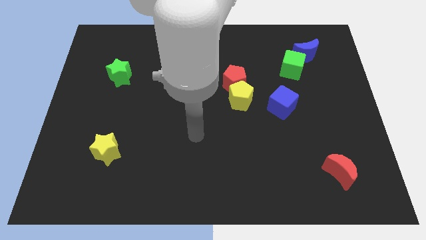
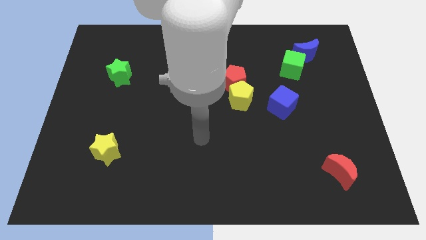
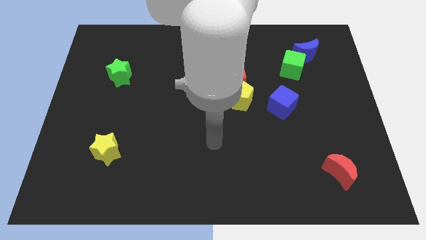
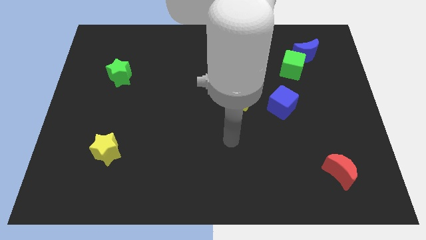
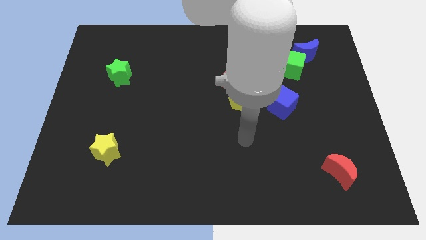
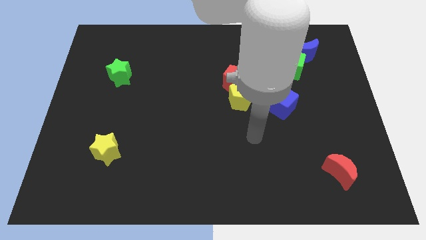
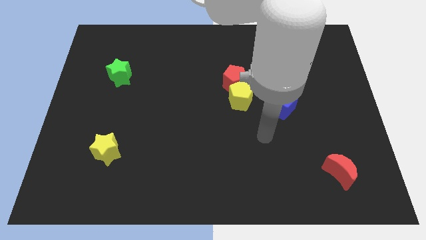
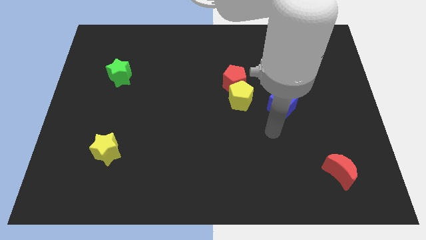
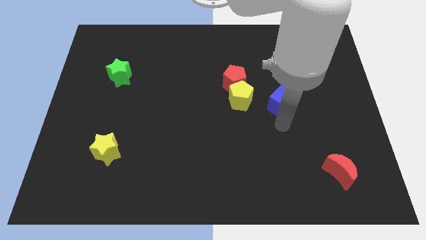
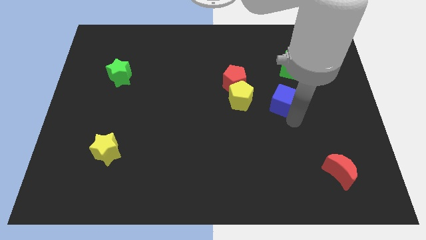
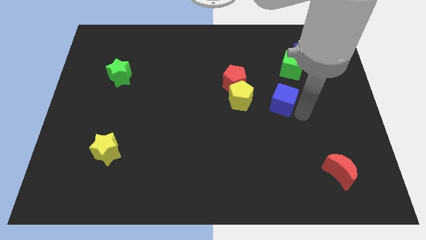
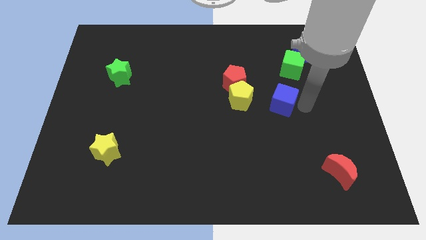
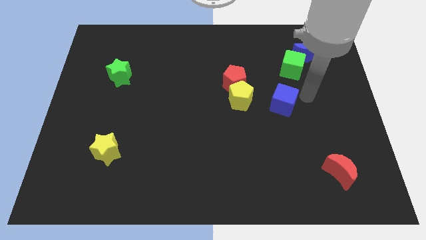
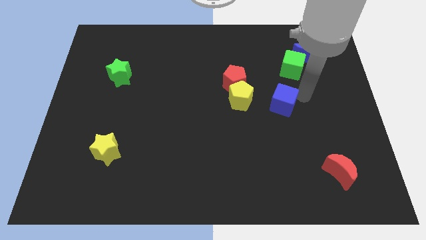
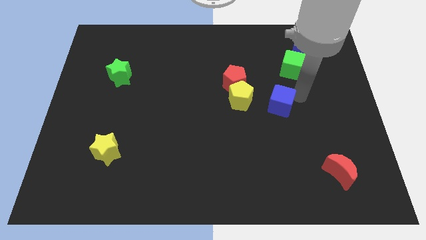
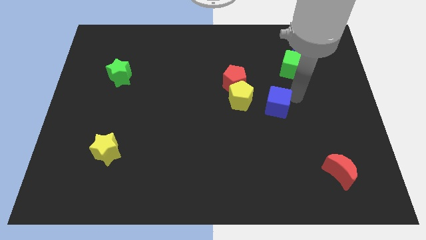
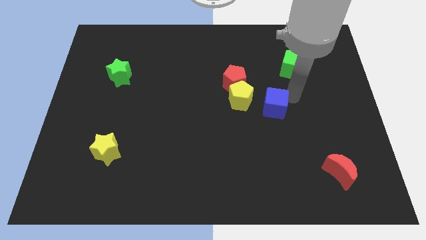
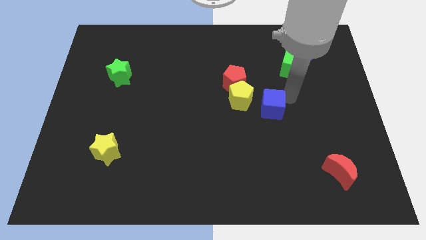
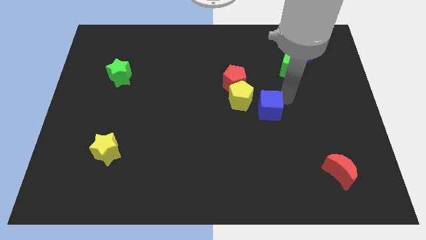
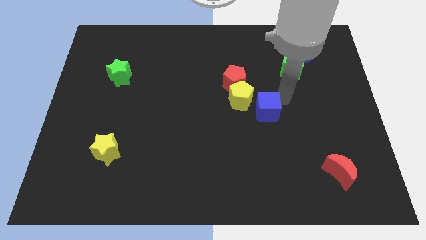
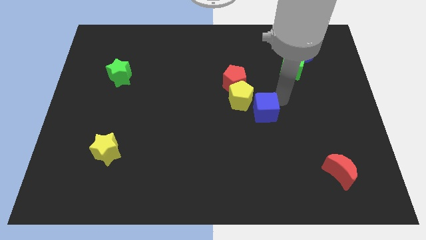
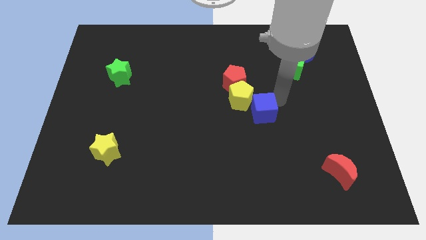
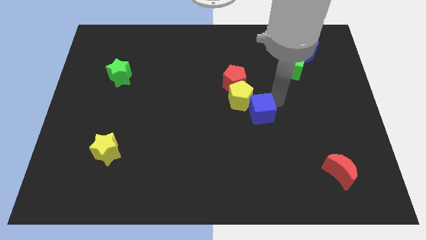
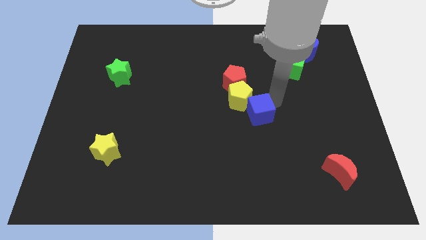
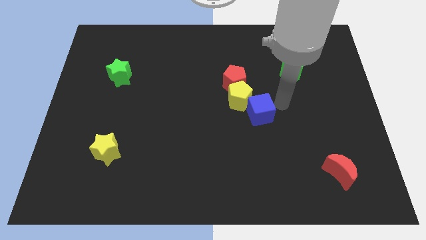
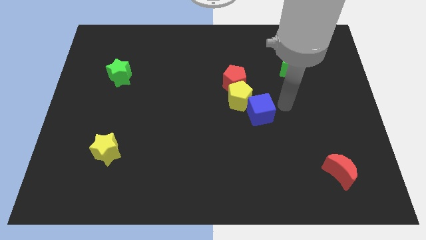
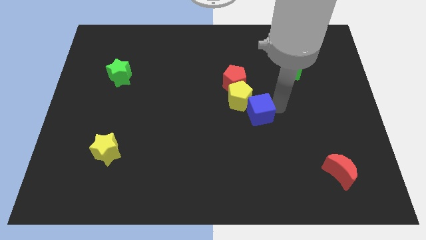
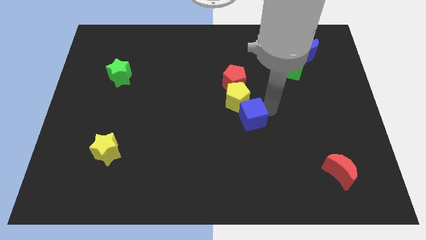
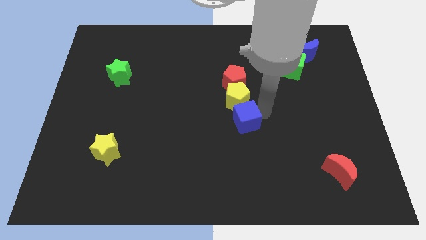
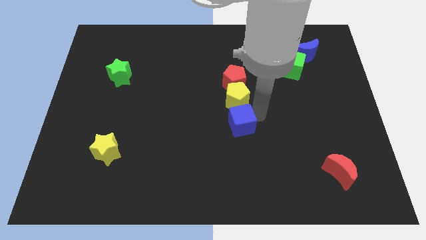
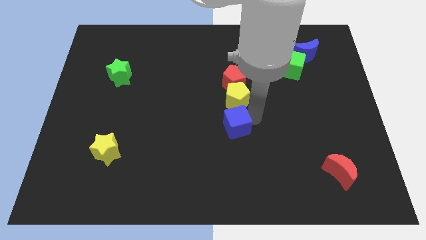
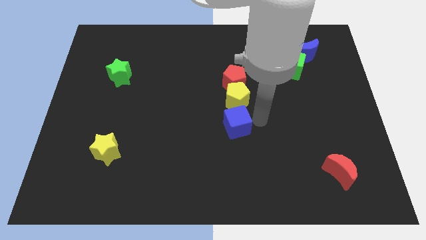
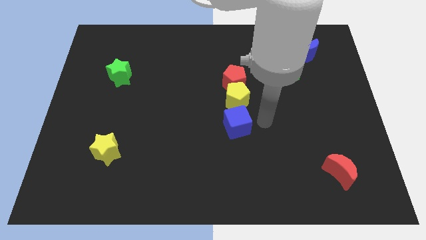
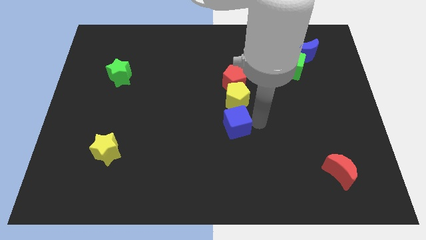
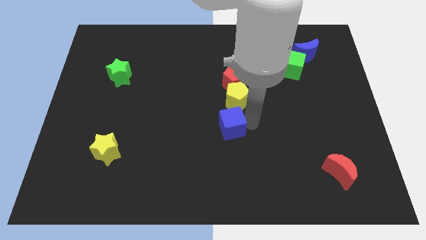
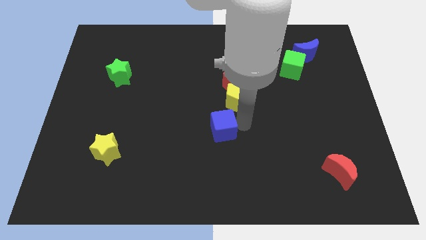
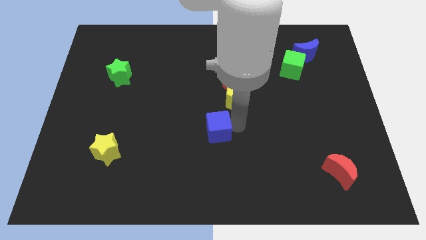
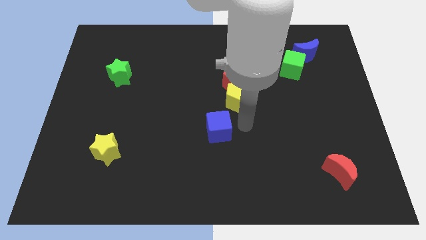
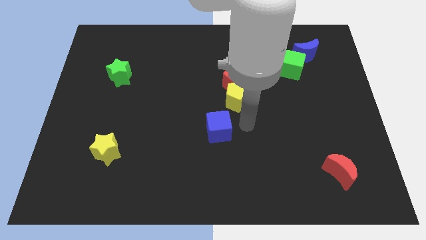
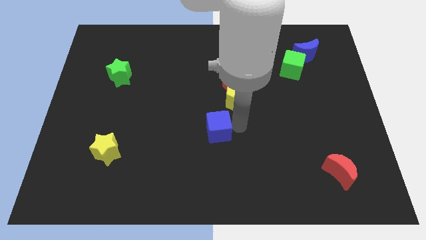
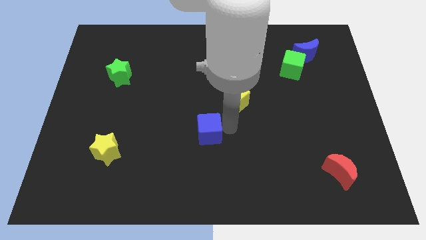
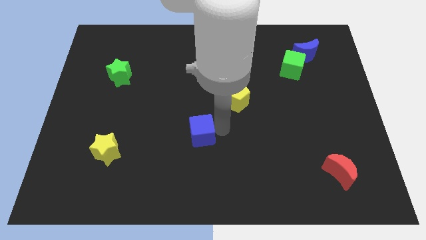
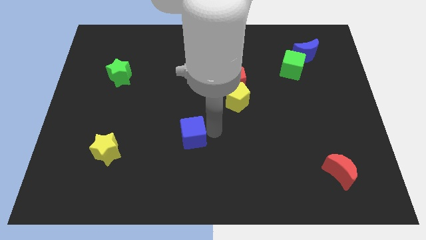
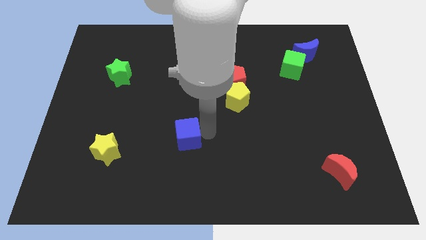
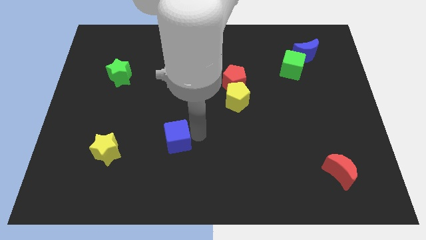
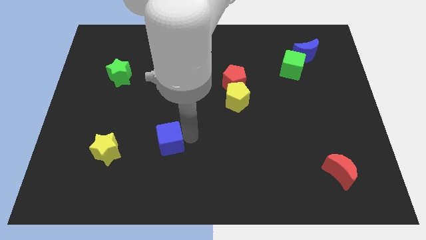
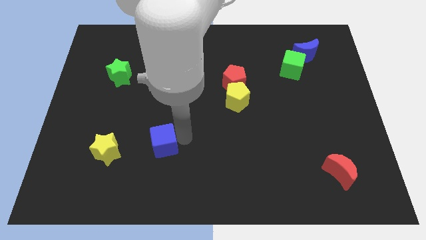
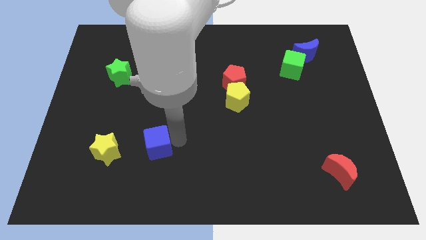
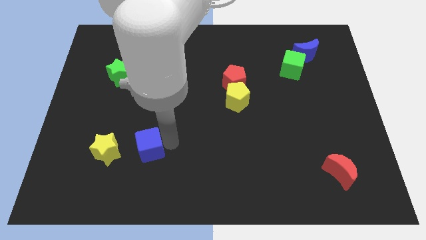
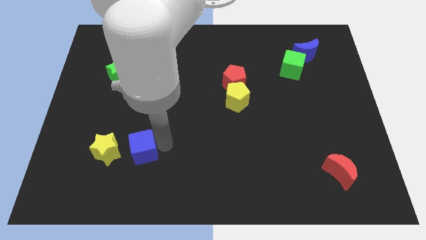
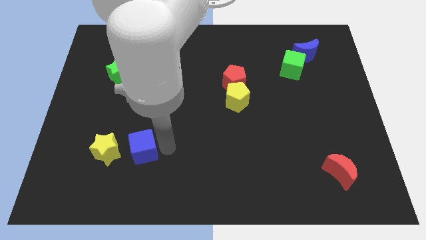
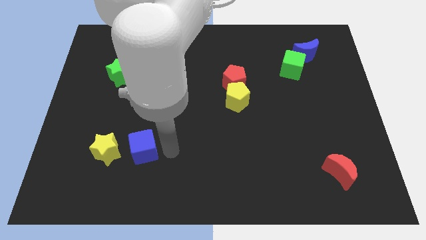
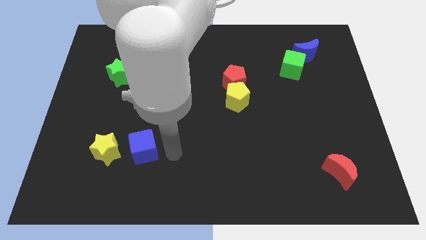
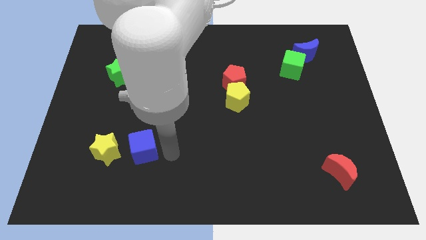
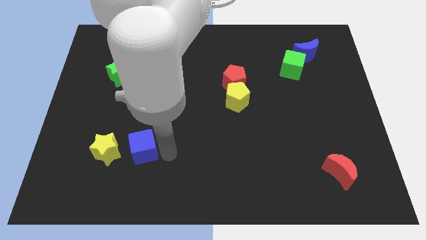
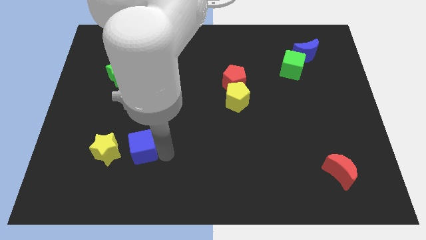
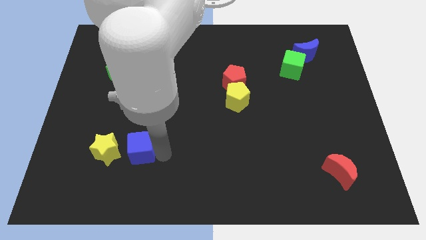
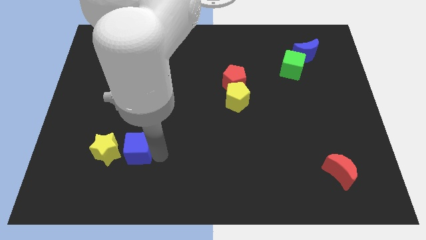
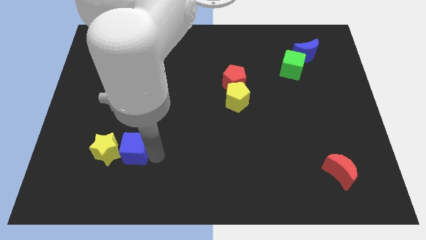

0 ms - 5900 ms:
slide the blue cube towards the yellow star

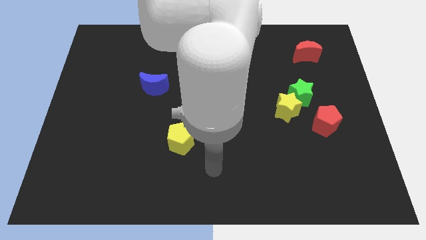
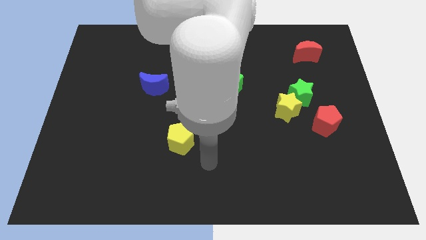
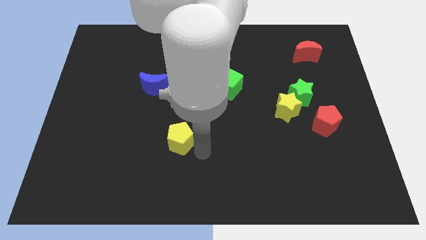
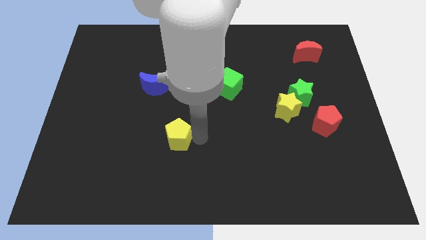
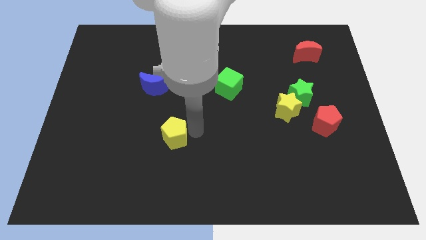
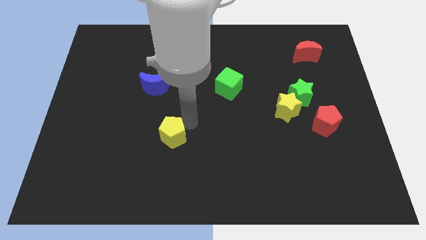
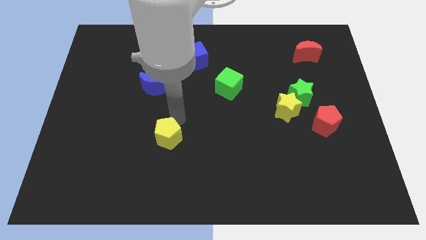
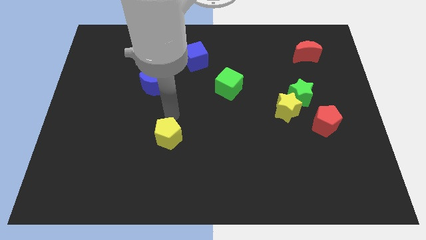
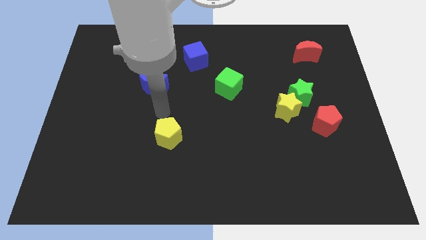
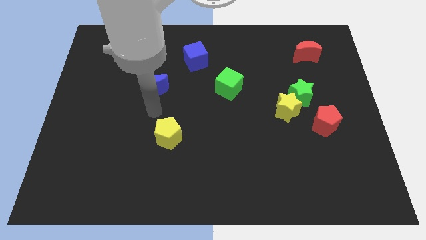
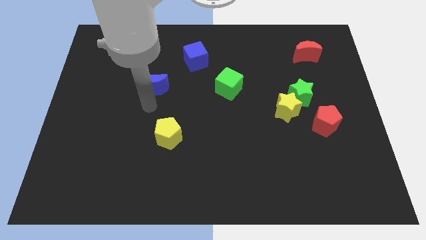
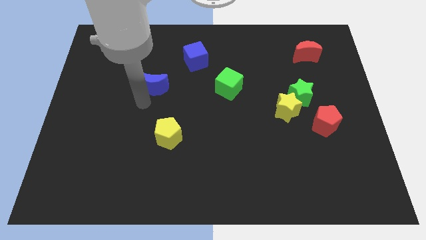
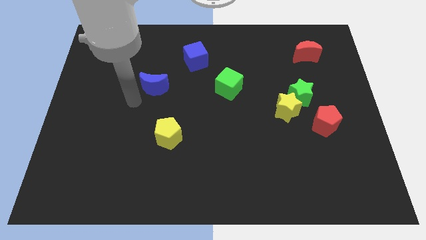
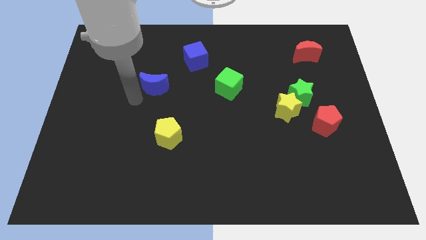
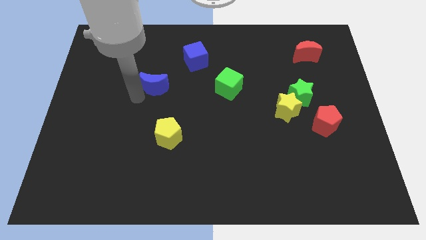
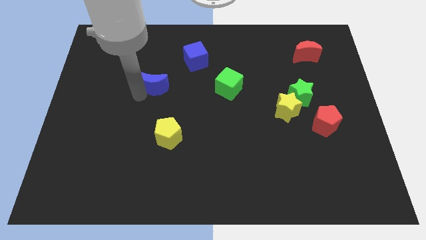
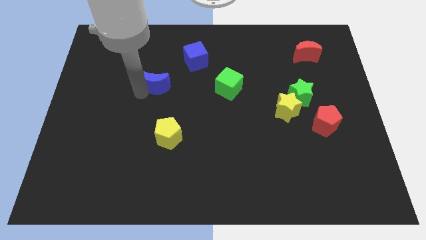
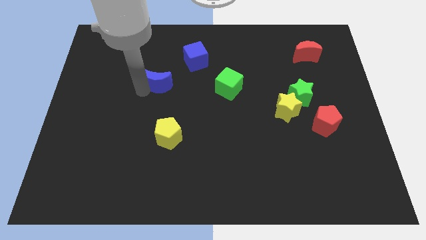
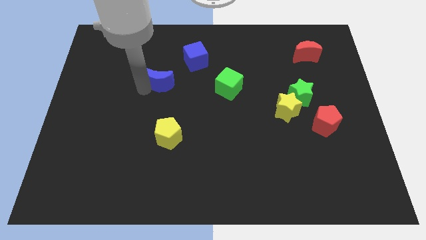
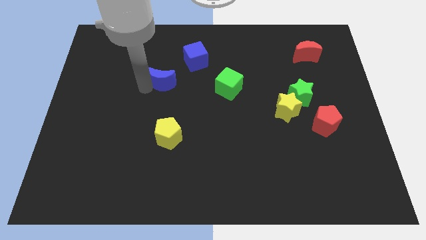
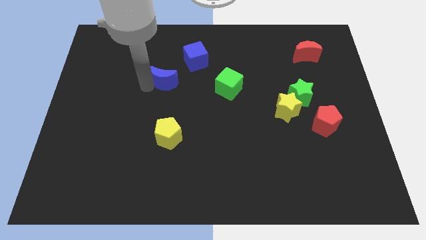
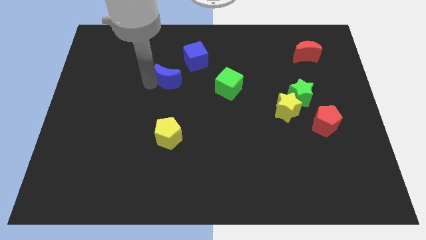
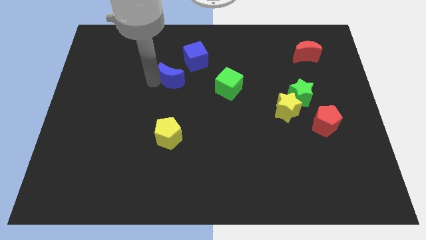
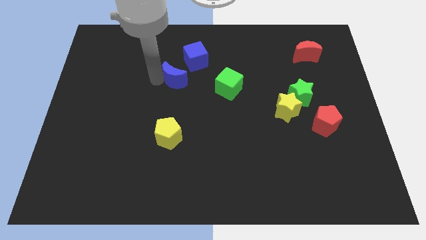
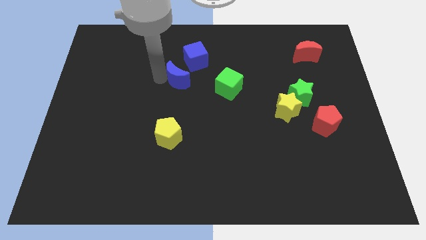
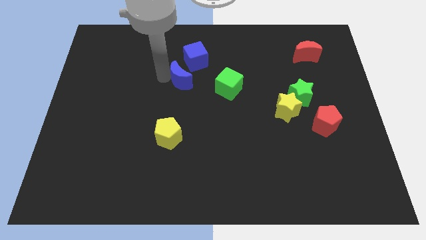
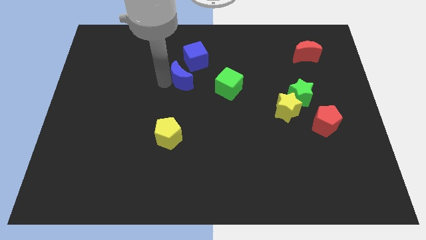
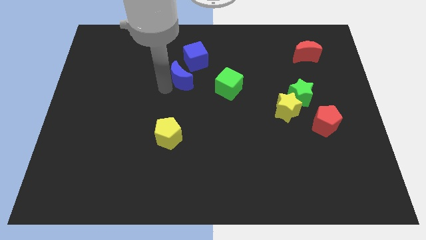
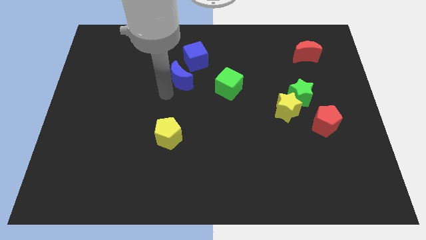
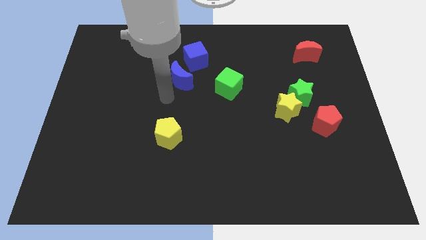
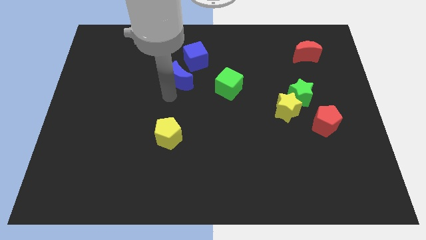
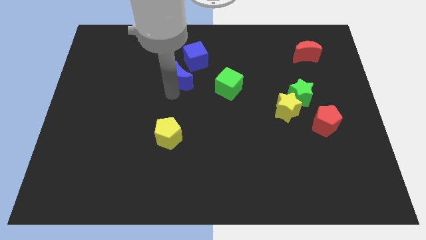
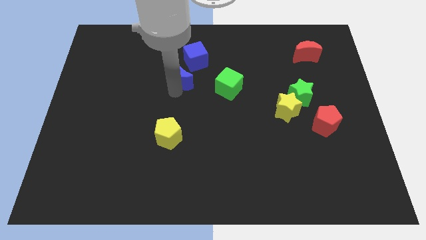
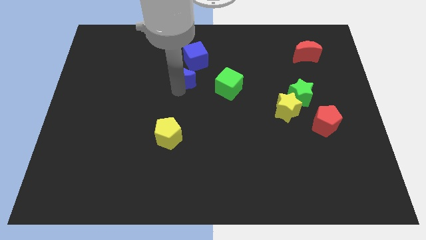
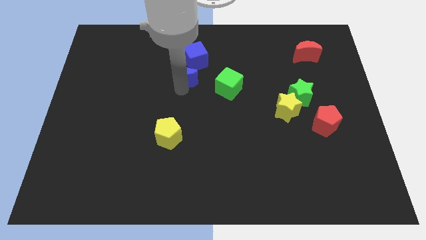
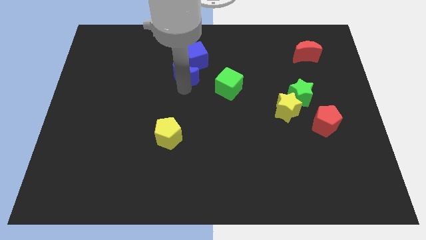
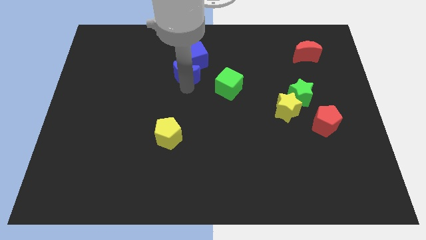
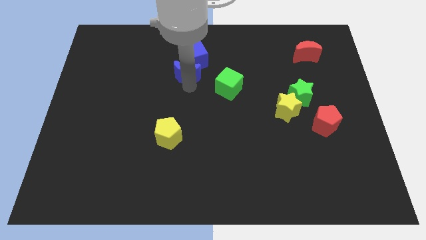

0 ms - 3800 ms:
push the blue moon next to the blue cube
